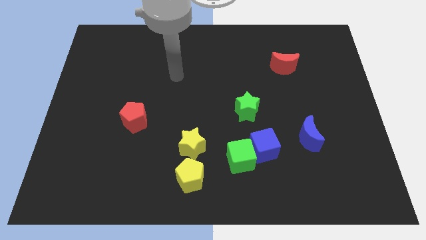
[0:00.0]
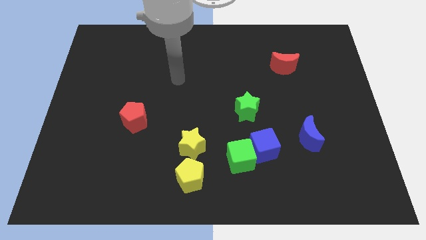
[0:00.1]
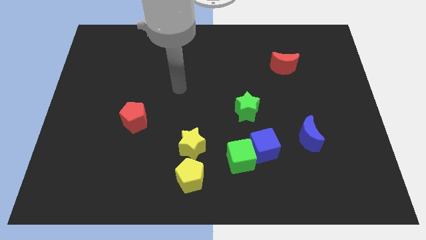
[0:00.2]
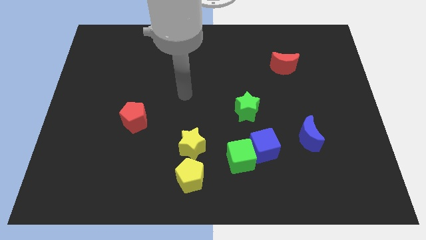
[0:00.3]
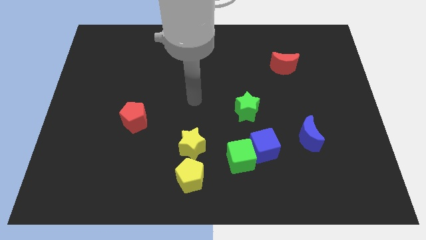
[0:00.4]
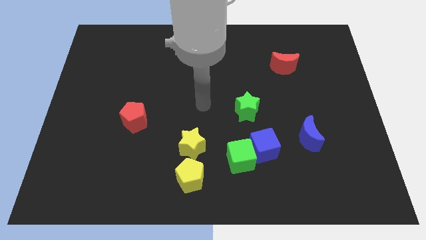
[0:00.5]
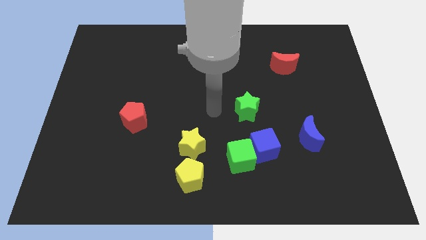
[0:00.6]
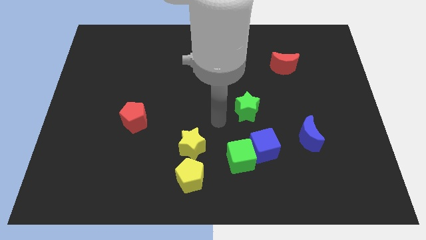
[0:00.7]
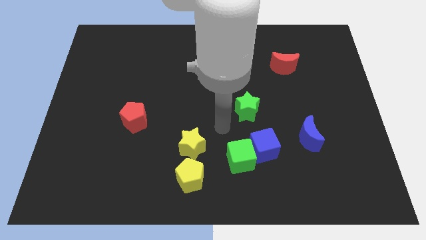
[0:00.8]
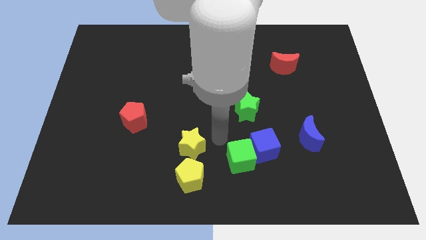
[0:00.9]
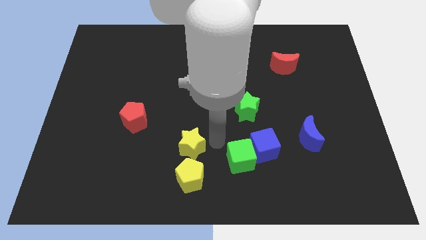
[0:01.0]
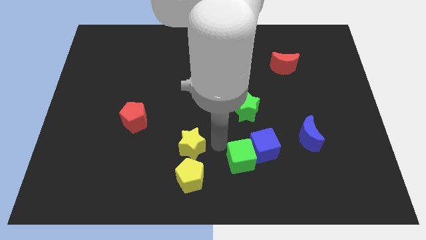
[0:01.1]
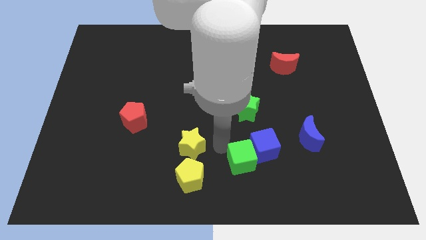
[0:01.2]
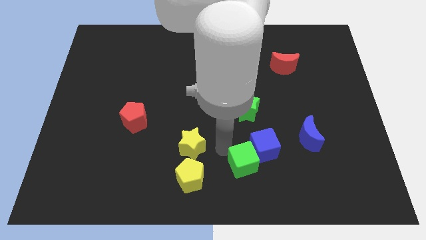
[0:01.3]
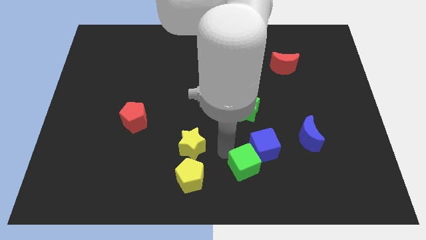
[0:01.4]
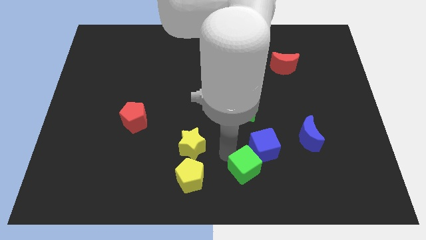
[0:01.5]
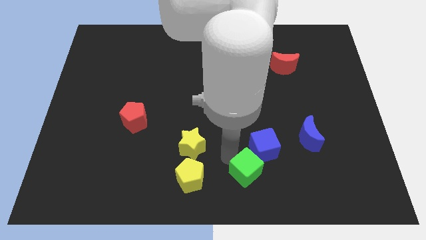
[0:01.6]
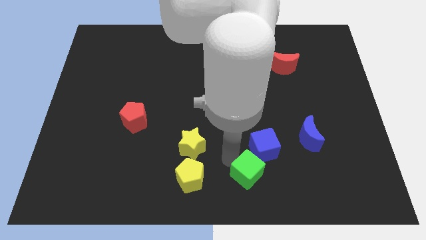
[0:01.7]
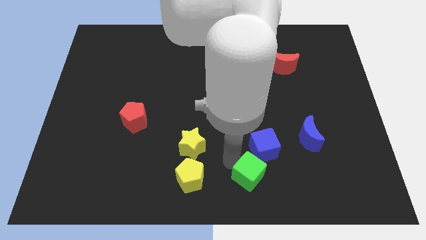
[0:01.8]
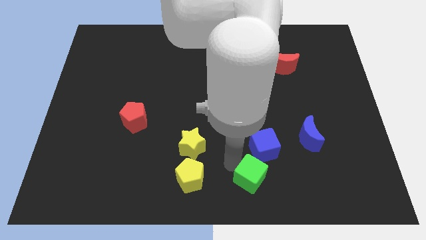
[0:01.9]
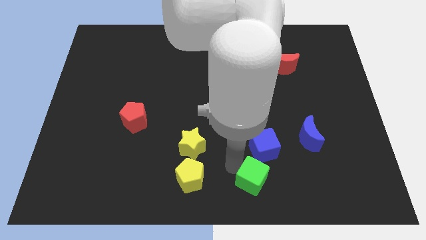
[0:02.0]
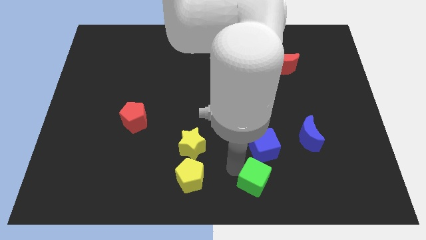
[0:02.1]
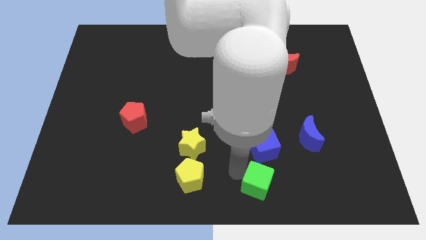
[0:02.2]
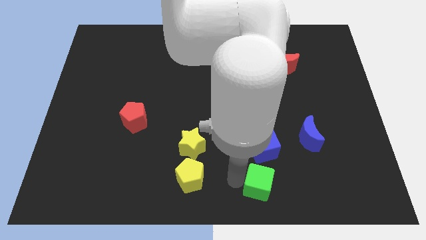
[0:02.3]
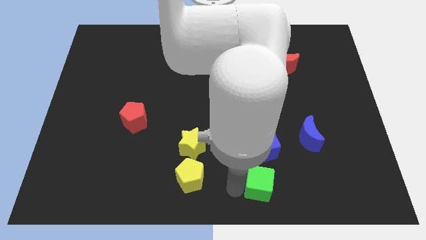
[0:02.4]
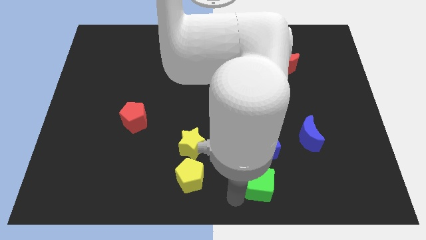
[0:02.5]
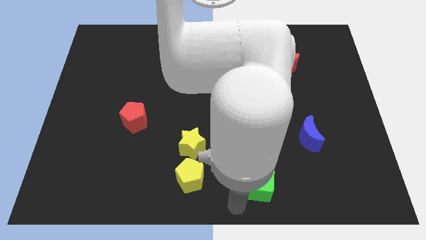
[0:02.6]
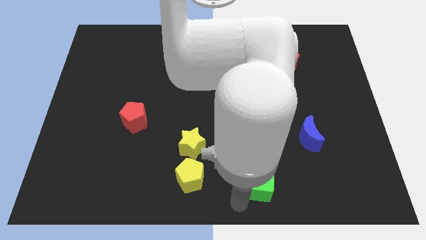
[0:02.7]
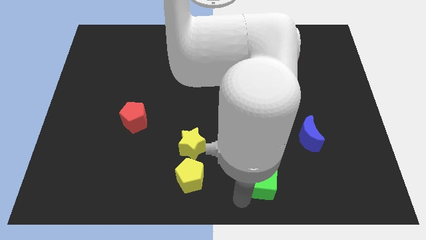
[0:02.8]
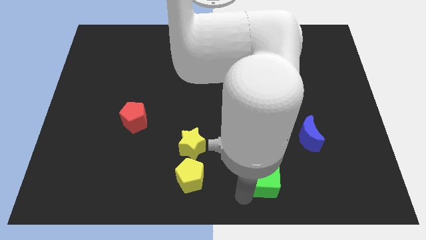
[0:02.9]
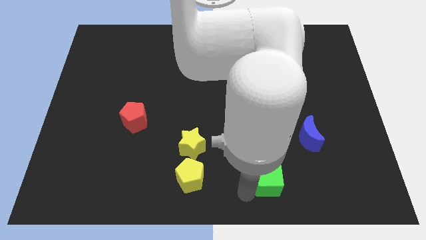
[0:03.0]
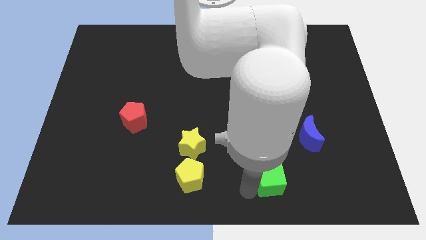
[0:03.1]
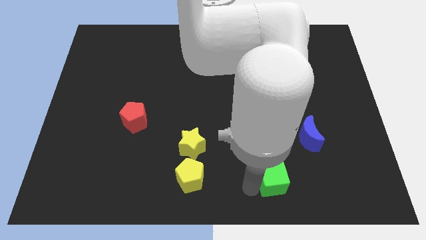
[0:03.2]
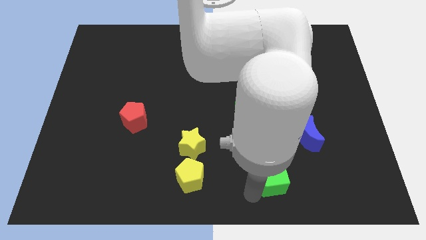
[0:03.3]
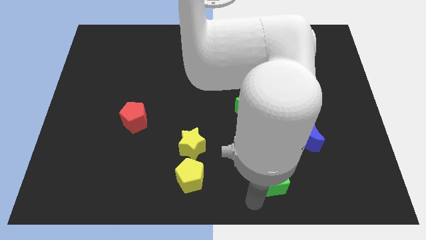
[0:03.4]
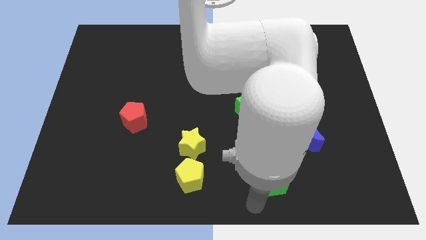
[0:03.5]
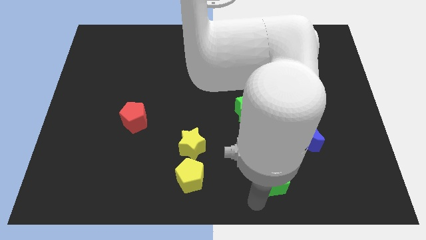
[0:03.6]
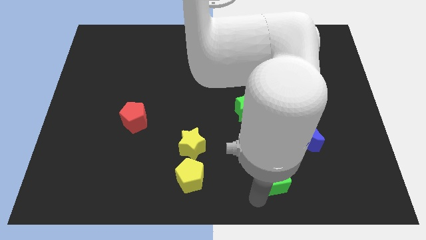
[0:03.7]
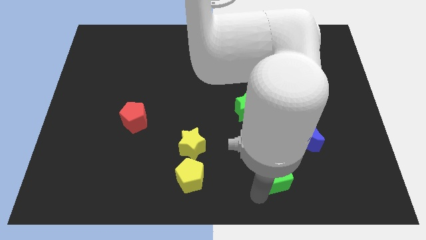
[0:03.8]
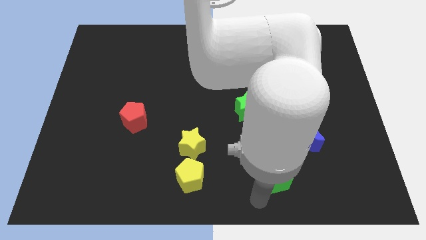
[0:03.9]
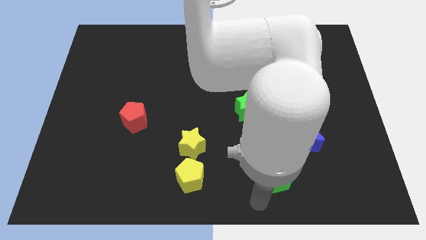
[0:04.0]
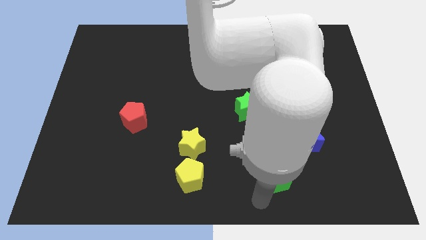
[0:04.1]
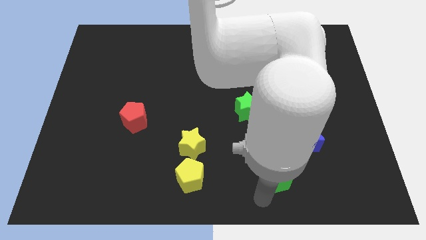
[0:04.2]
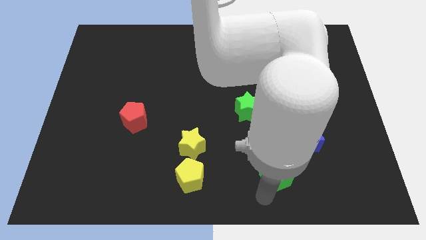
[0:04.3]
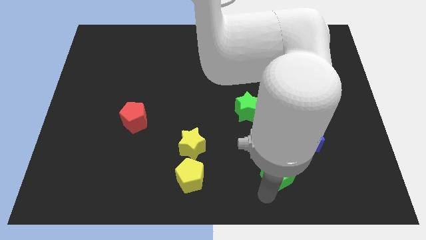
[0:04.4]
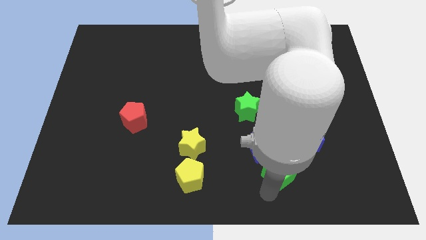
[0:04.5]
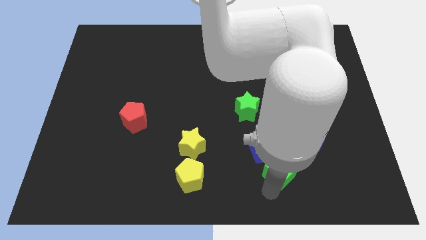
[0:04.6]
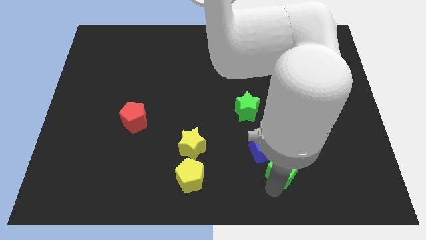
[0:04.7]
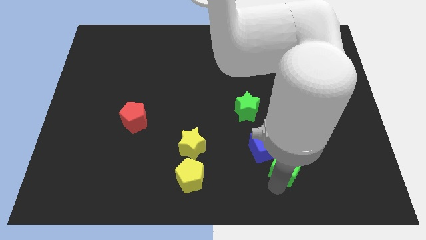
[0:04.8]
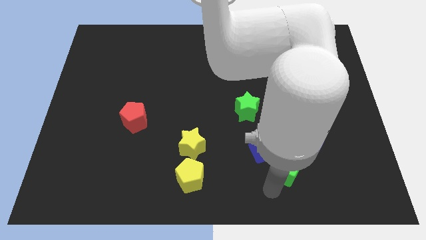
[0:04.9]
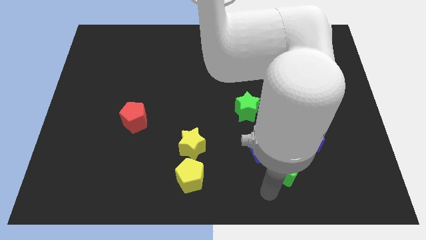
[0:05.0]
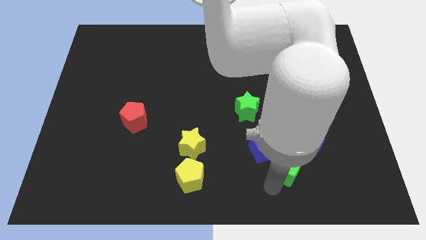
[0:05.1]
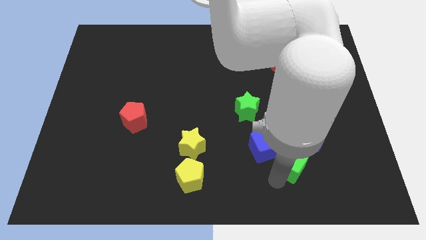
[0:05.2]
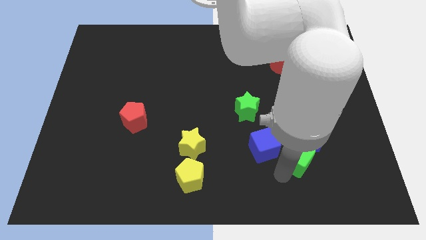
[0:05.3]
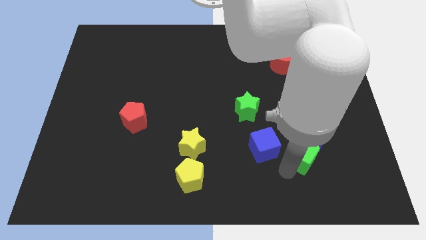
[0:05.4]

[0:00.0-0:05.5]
move the green cube to the blue moon

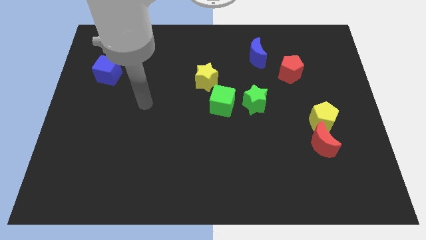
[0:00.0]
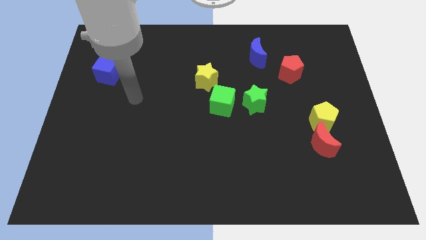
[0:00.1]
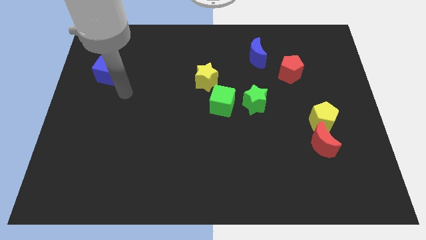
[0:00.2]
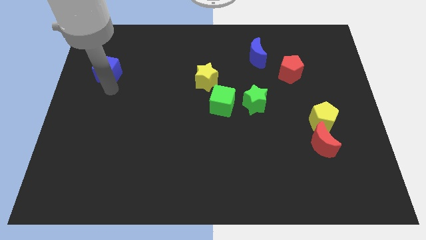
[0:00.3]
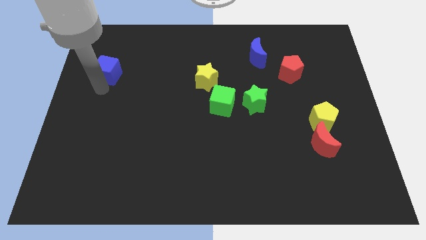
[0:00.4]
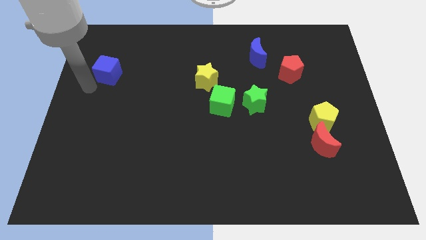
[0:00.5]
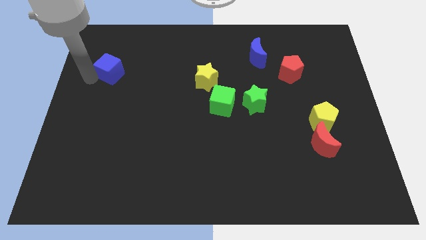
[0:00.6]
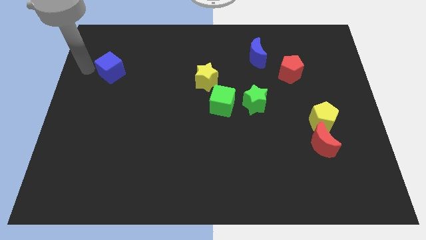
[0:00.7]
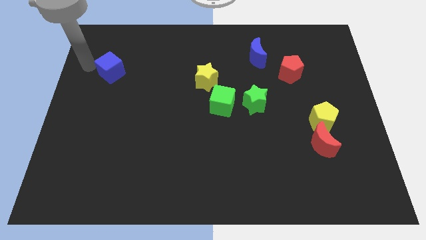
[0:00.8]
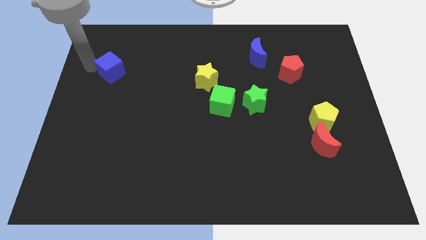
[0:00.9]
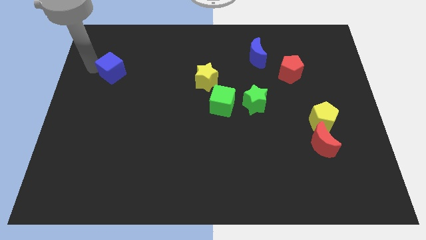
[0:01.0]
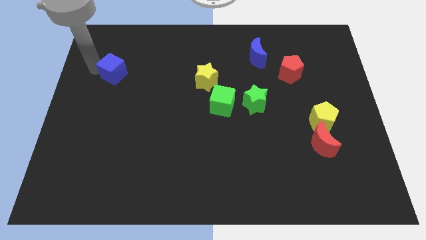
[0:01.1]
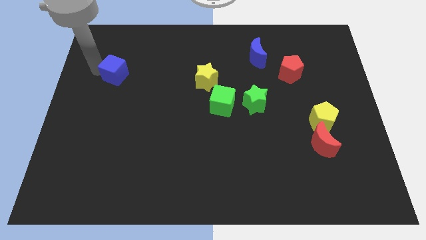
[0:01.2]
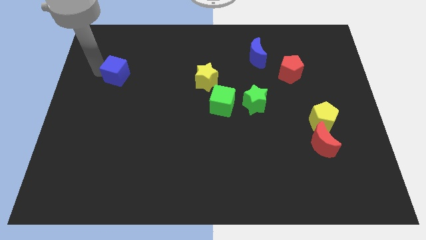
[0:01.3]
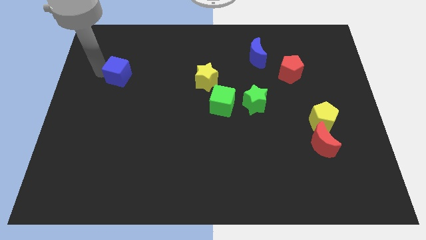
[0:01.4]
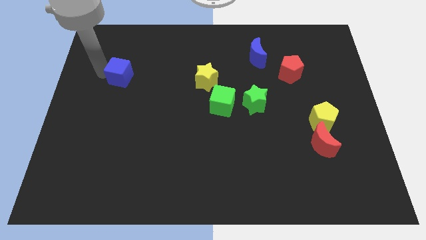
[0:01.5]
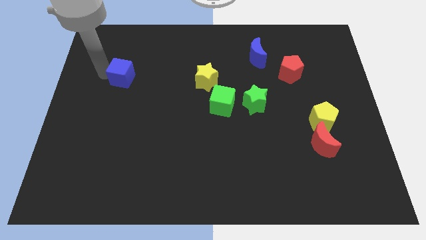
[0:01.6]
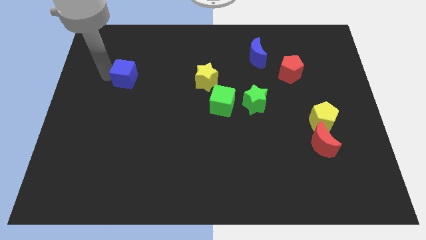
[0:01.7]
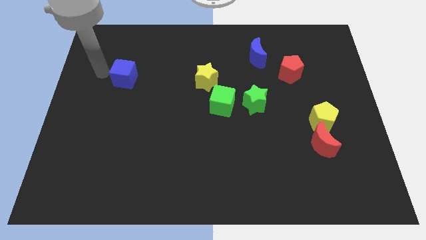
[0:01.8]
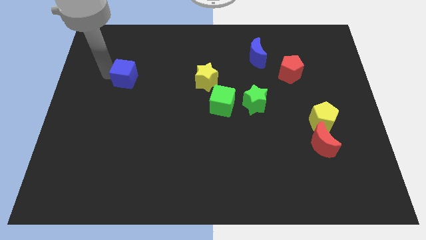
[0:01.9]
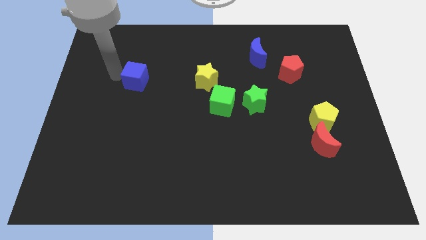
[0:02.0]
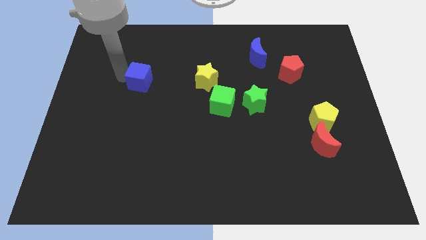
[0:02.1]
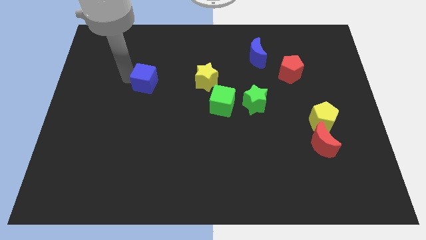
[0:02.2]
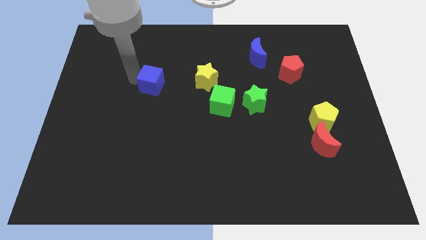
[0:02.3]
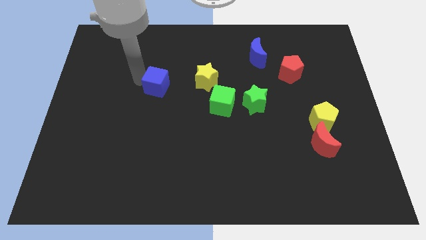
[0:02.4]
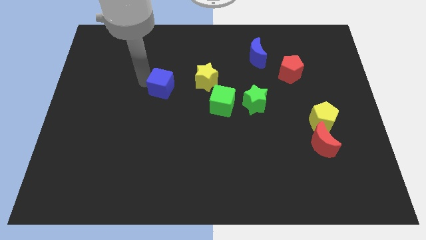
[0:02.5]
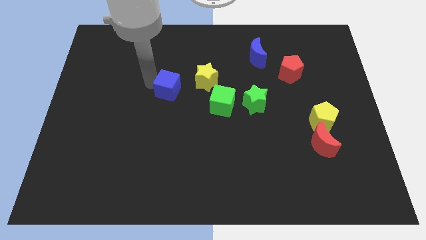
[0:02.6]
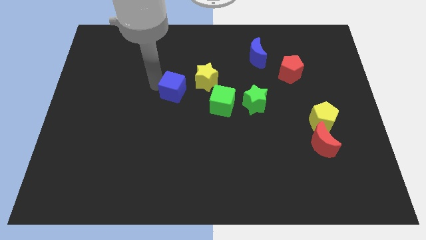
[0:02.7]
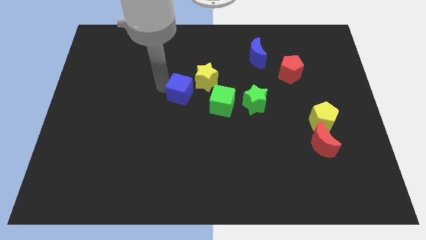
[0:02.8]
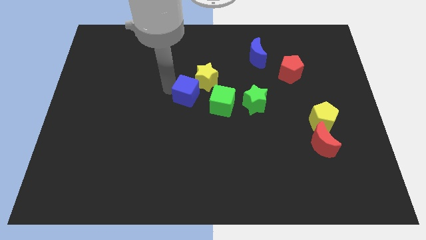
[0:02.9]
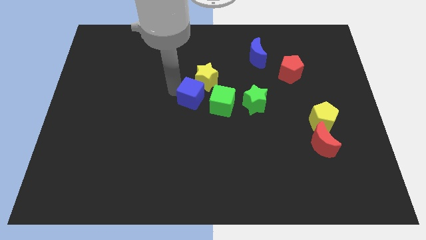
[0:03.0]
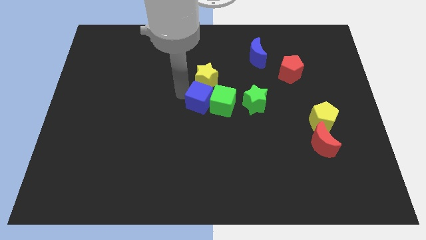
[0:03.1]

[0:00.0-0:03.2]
push the blue cube next to the green cube
